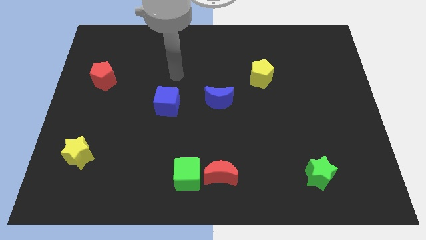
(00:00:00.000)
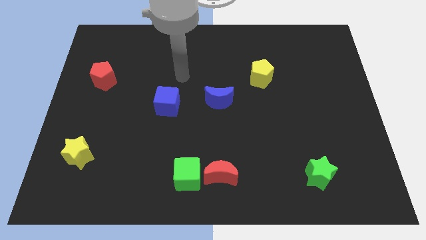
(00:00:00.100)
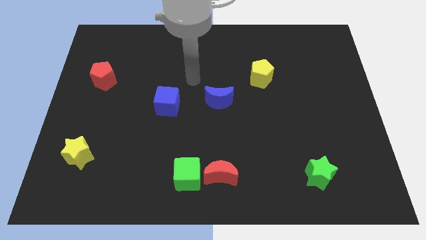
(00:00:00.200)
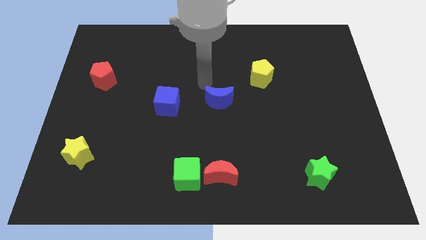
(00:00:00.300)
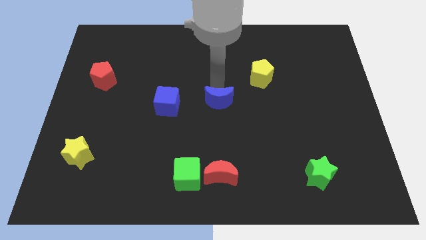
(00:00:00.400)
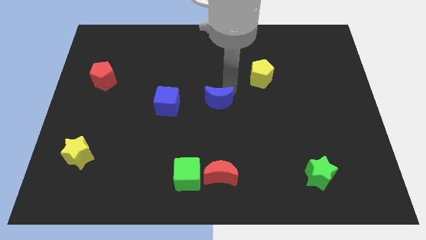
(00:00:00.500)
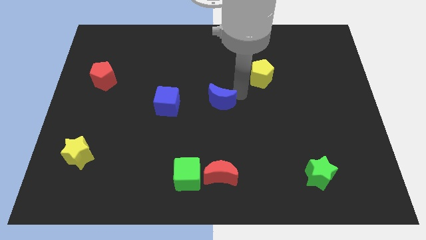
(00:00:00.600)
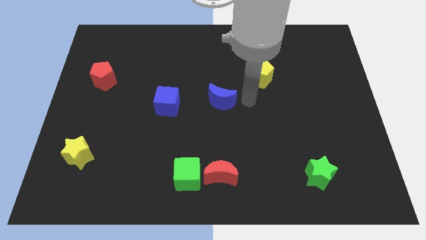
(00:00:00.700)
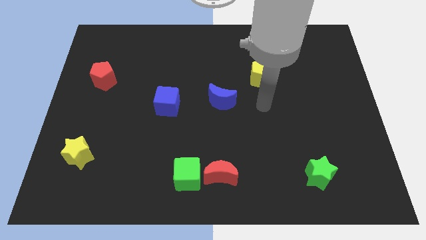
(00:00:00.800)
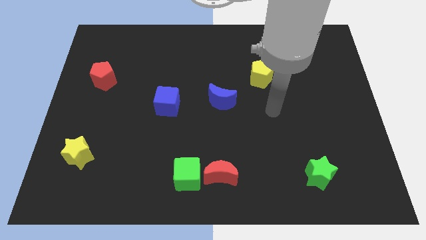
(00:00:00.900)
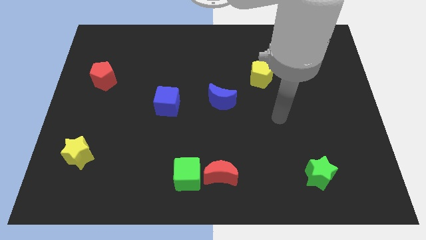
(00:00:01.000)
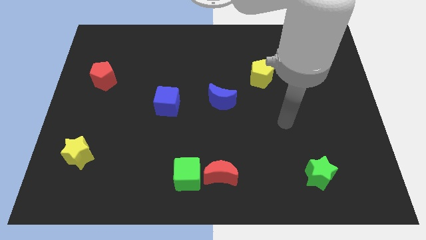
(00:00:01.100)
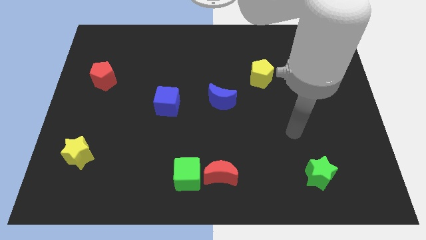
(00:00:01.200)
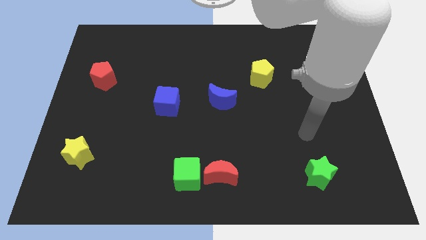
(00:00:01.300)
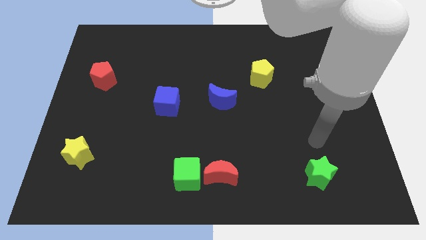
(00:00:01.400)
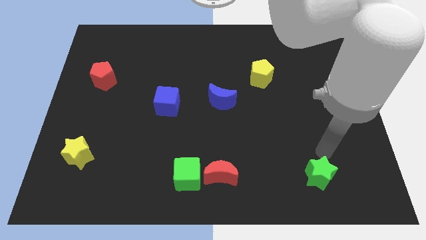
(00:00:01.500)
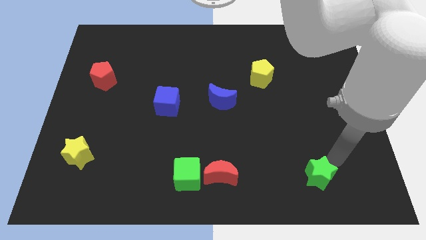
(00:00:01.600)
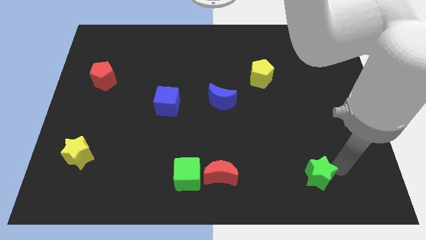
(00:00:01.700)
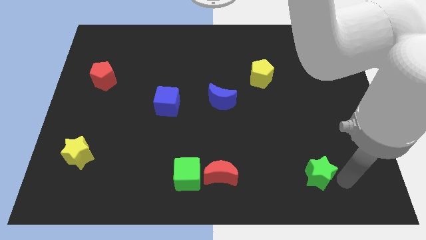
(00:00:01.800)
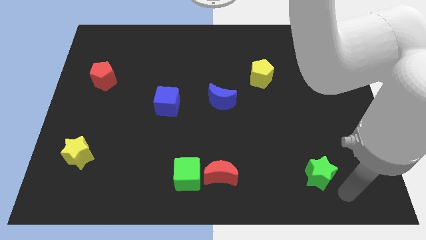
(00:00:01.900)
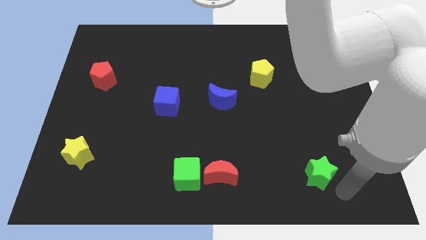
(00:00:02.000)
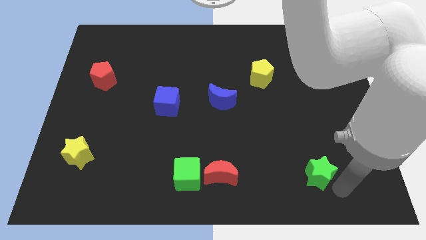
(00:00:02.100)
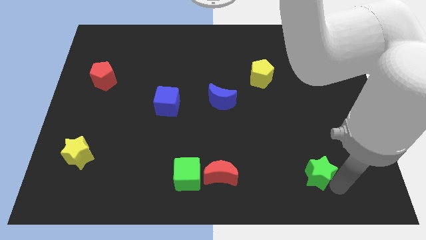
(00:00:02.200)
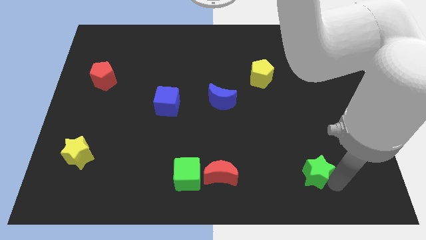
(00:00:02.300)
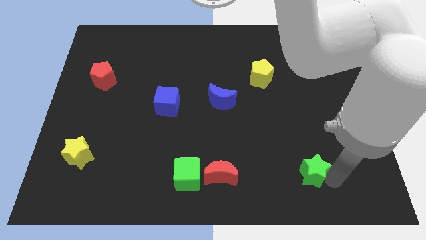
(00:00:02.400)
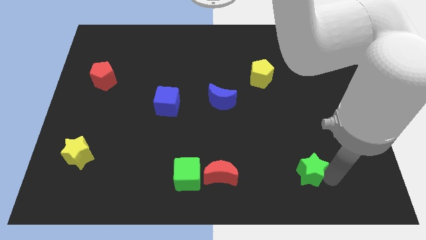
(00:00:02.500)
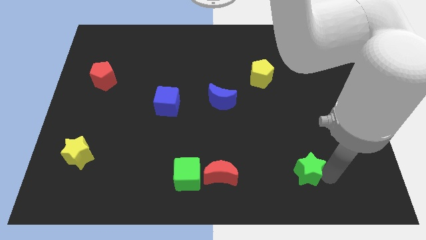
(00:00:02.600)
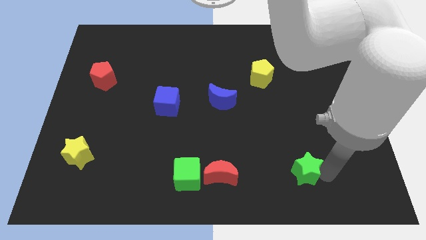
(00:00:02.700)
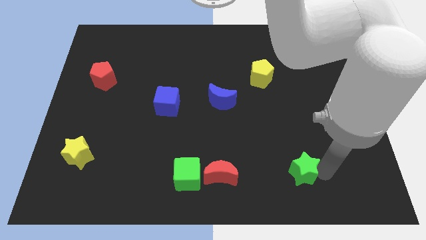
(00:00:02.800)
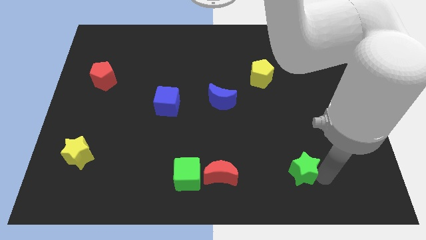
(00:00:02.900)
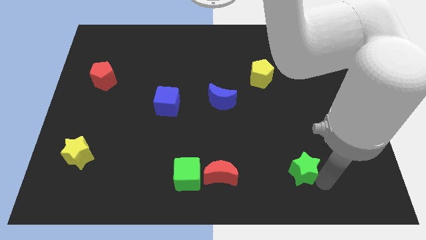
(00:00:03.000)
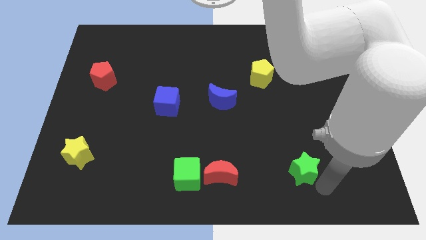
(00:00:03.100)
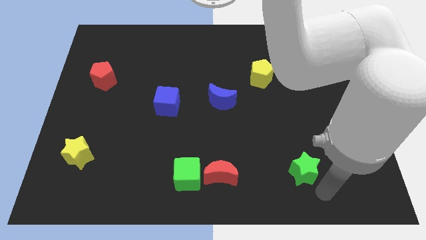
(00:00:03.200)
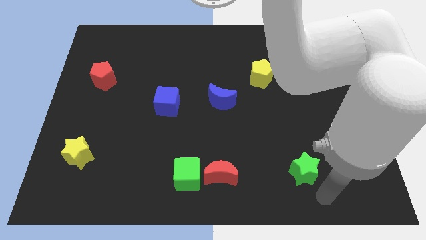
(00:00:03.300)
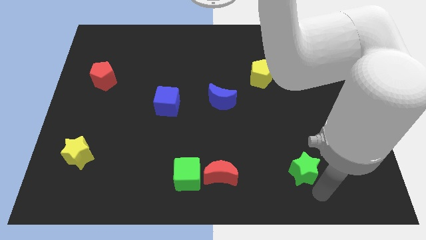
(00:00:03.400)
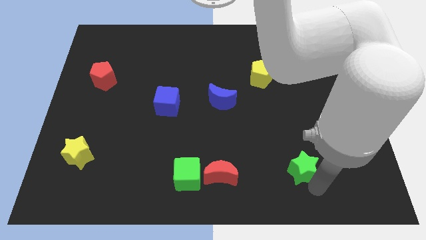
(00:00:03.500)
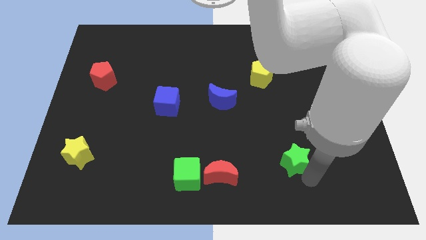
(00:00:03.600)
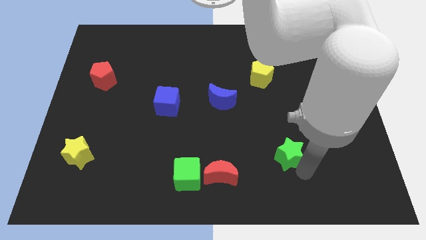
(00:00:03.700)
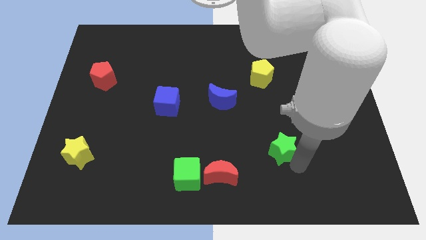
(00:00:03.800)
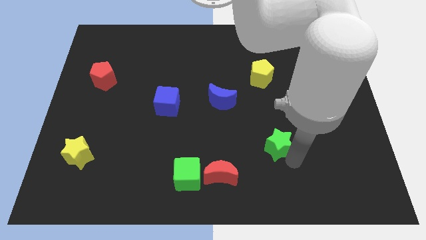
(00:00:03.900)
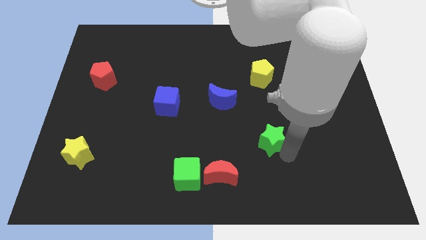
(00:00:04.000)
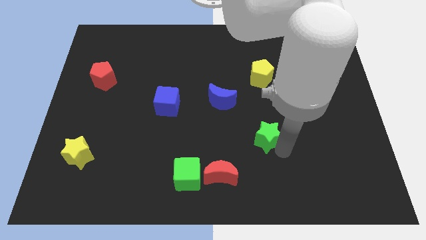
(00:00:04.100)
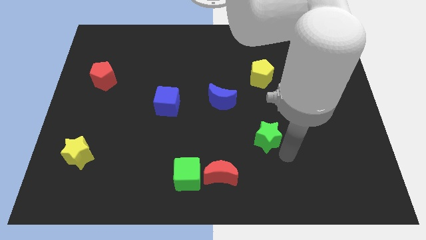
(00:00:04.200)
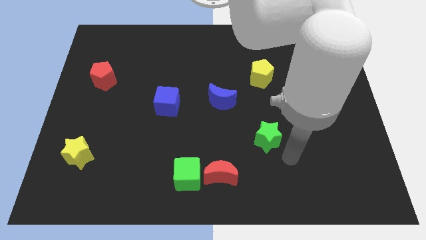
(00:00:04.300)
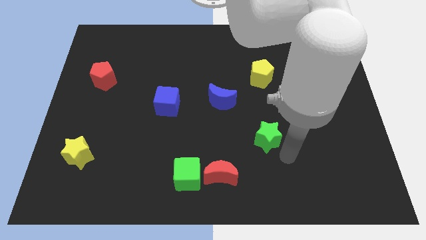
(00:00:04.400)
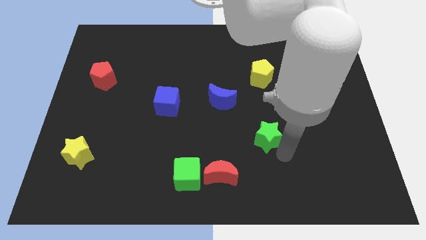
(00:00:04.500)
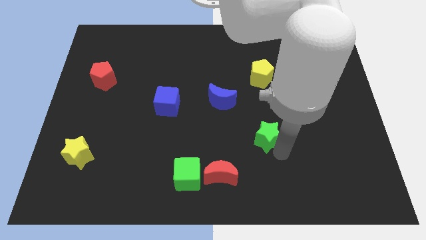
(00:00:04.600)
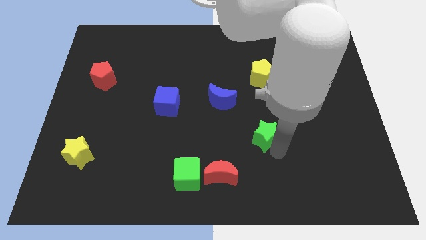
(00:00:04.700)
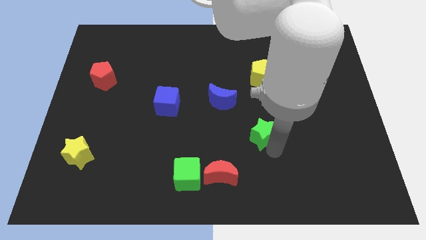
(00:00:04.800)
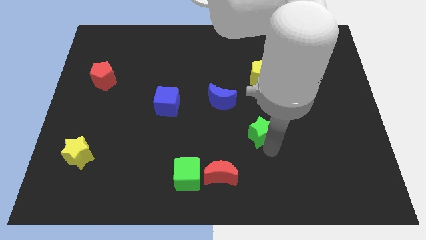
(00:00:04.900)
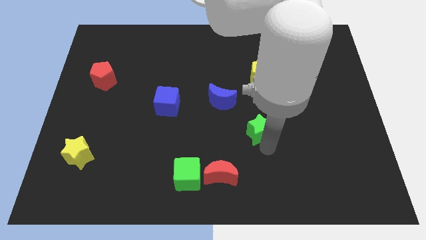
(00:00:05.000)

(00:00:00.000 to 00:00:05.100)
slide the green star to the bottom right side of the blue moon

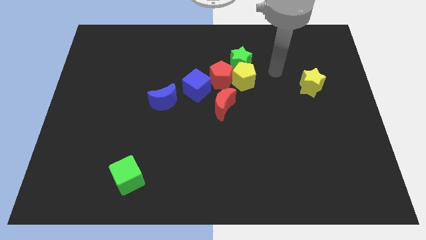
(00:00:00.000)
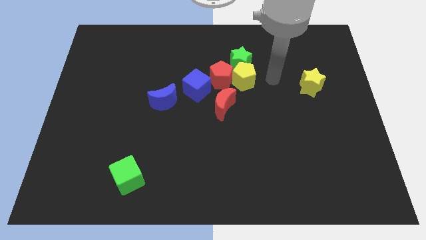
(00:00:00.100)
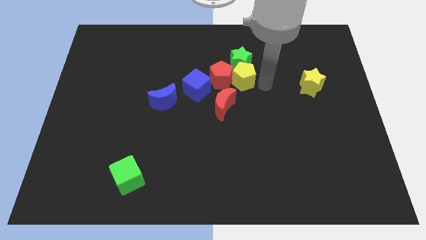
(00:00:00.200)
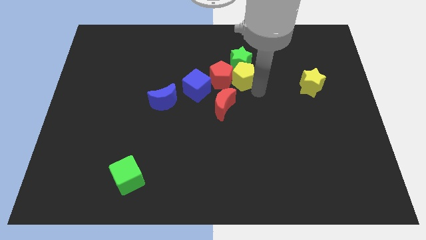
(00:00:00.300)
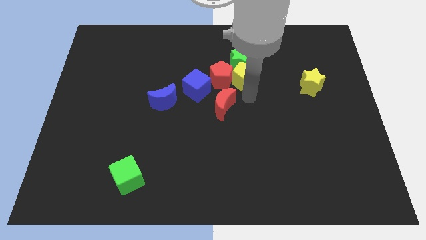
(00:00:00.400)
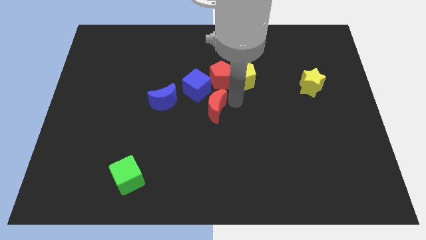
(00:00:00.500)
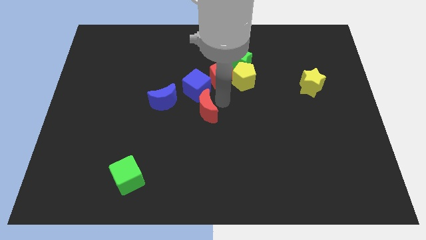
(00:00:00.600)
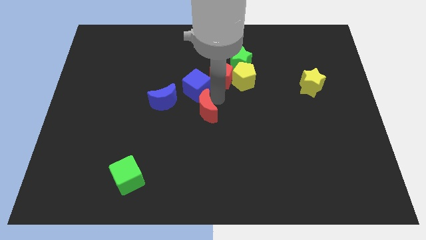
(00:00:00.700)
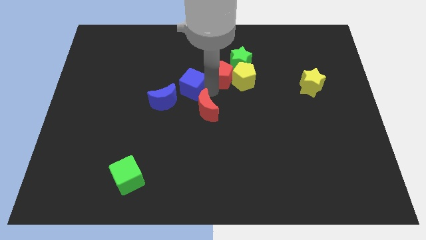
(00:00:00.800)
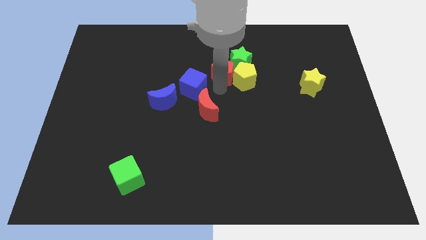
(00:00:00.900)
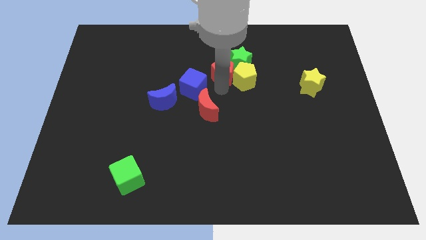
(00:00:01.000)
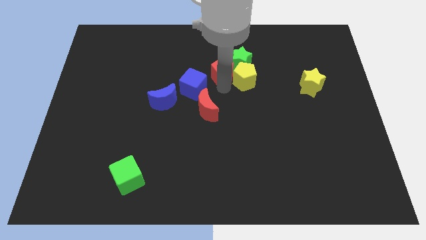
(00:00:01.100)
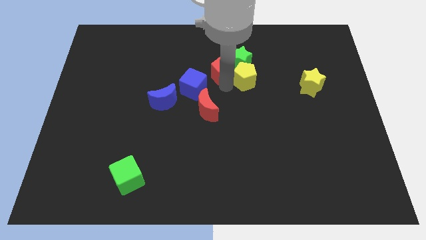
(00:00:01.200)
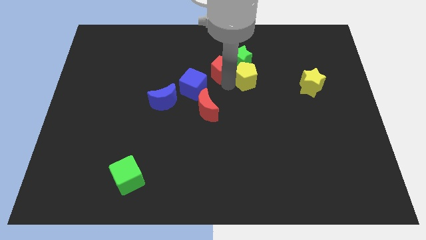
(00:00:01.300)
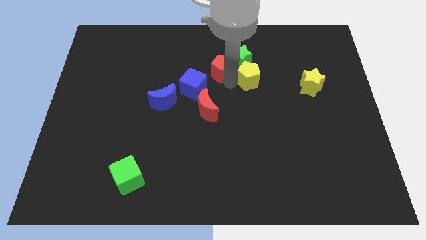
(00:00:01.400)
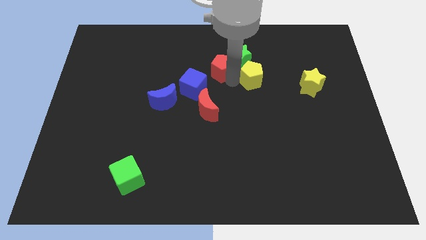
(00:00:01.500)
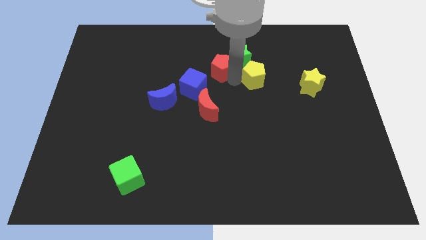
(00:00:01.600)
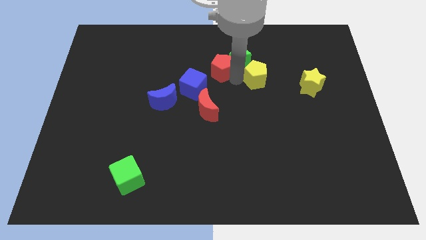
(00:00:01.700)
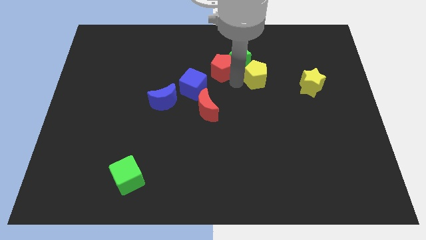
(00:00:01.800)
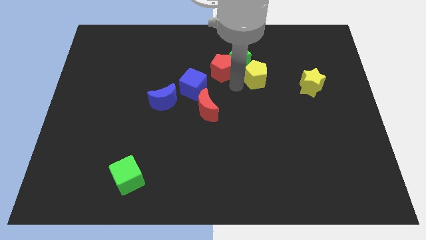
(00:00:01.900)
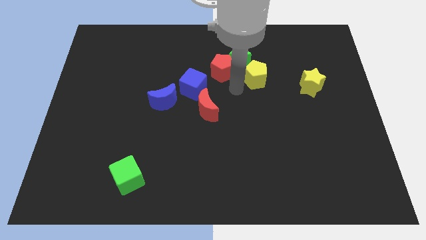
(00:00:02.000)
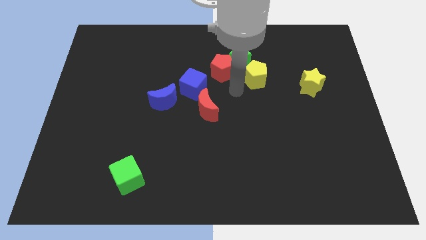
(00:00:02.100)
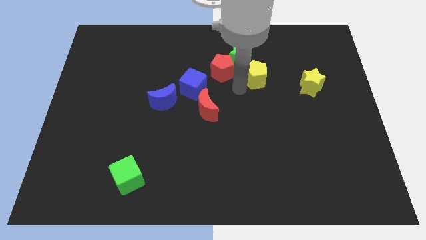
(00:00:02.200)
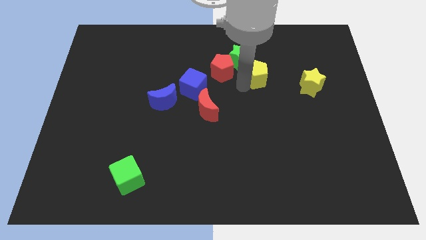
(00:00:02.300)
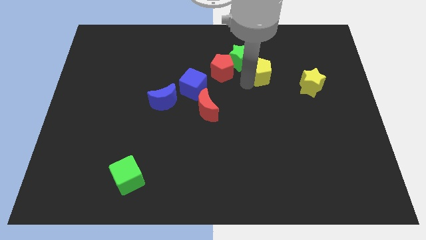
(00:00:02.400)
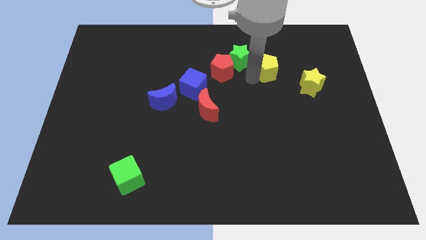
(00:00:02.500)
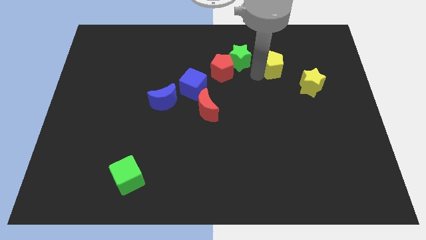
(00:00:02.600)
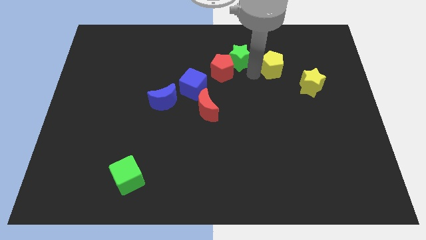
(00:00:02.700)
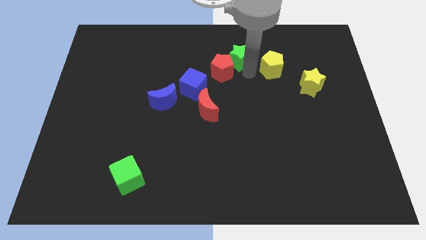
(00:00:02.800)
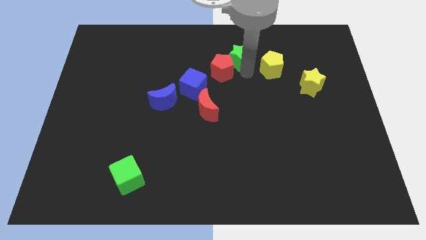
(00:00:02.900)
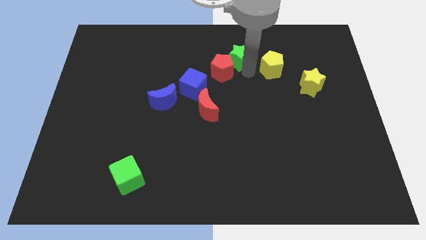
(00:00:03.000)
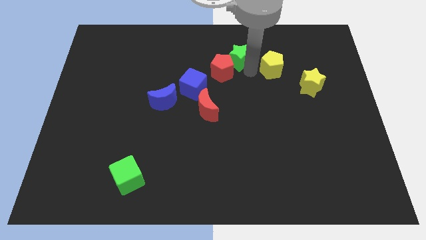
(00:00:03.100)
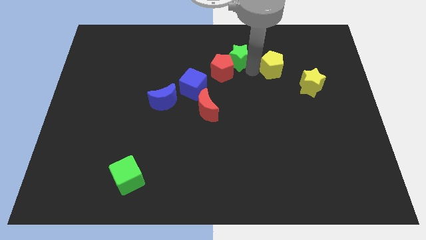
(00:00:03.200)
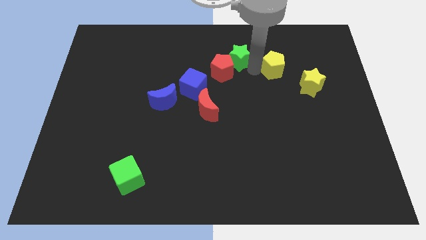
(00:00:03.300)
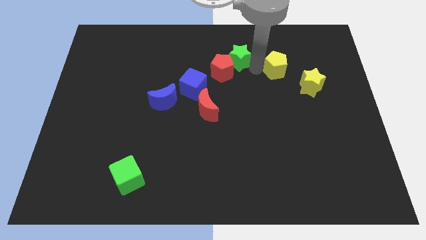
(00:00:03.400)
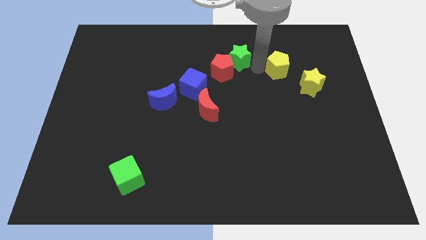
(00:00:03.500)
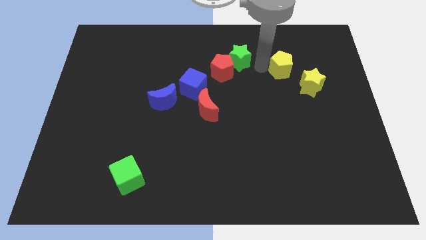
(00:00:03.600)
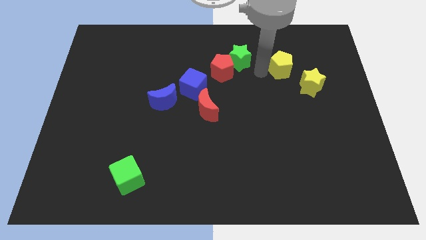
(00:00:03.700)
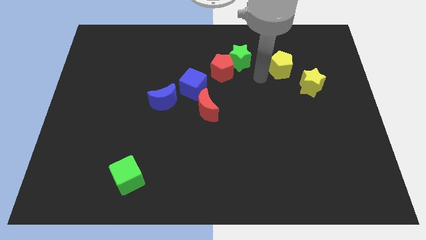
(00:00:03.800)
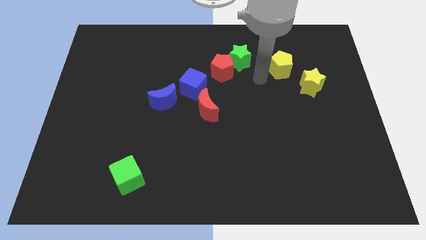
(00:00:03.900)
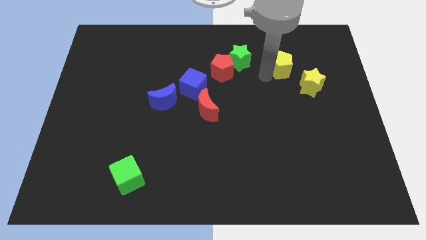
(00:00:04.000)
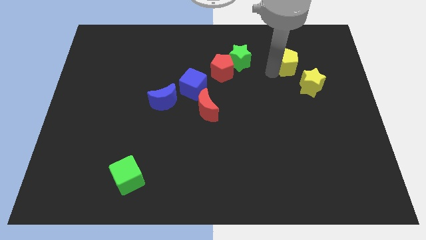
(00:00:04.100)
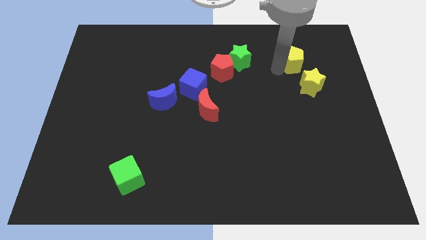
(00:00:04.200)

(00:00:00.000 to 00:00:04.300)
push the yellow pentagon to the top of the yellow star
